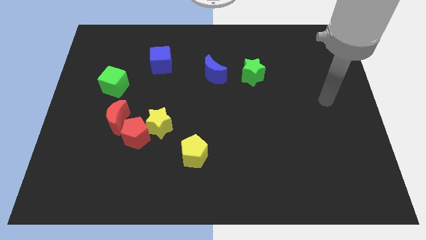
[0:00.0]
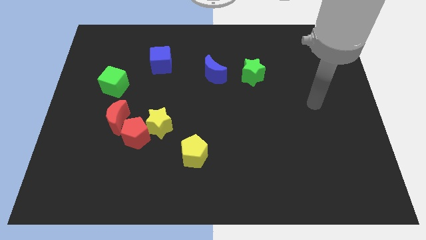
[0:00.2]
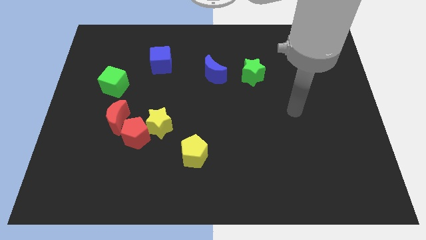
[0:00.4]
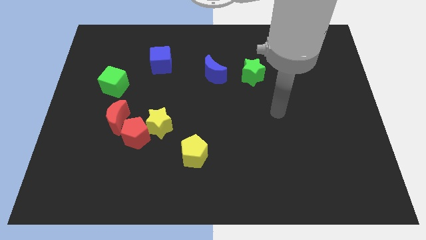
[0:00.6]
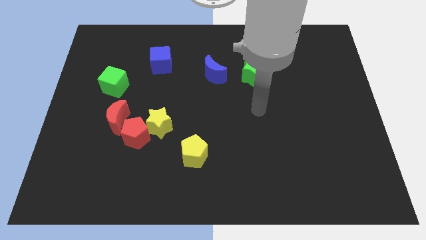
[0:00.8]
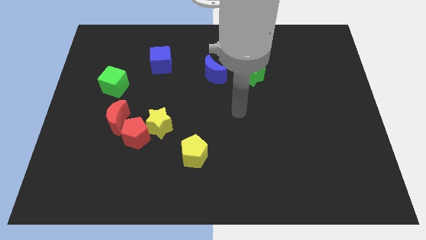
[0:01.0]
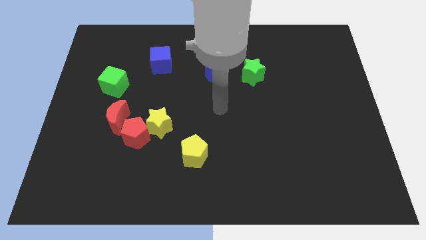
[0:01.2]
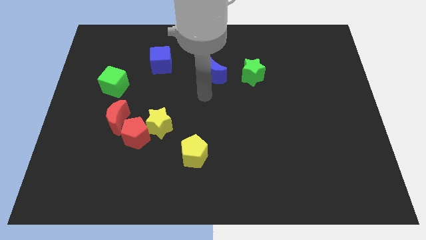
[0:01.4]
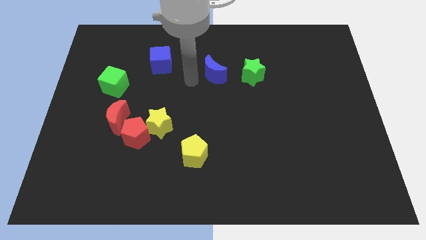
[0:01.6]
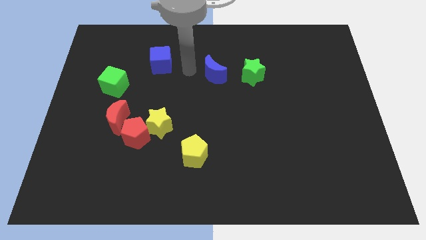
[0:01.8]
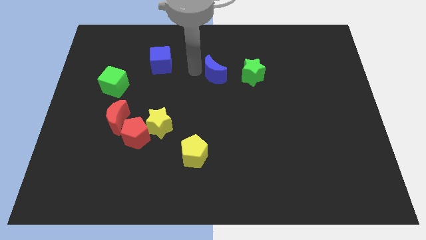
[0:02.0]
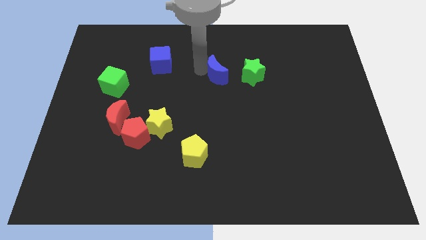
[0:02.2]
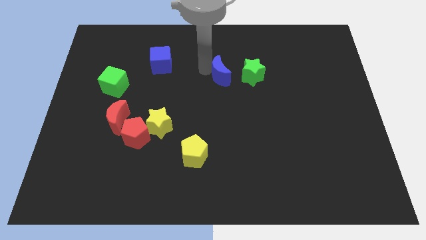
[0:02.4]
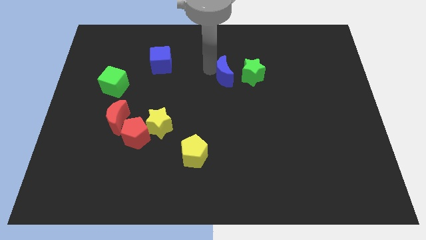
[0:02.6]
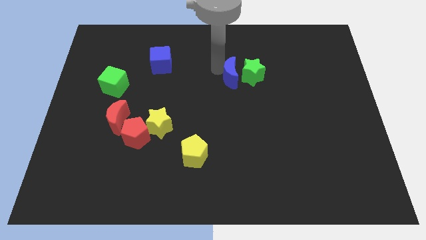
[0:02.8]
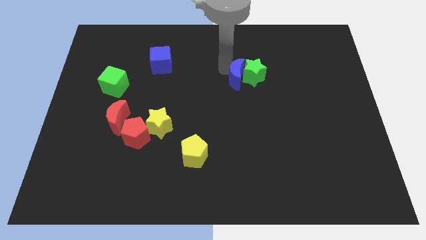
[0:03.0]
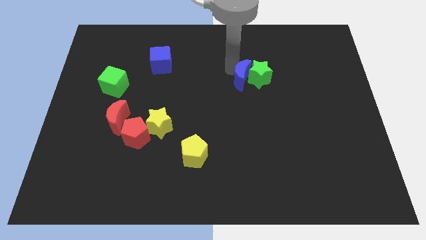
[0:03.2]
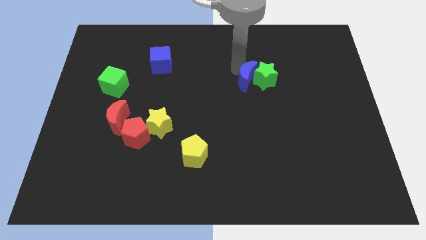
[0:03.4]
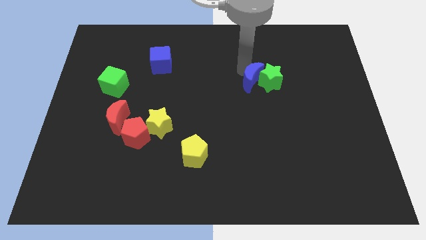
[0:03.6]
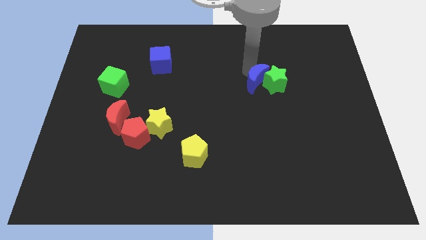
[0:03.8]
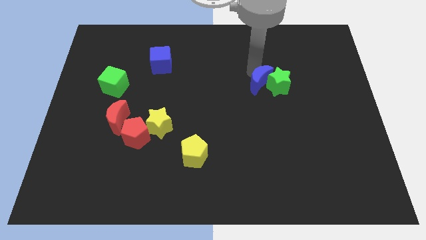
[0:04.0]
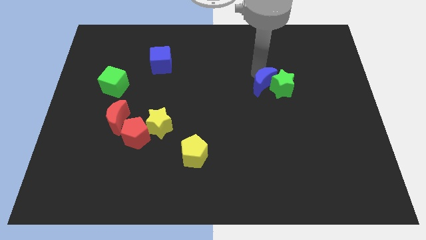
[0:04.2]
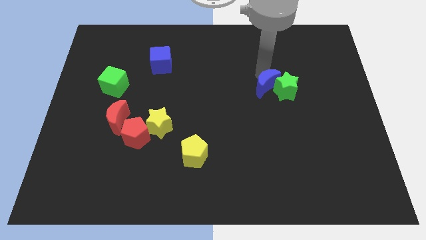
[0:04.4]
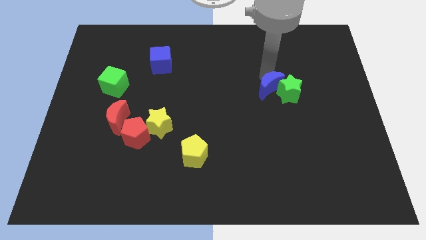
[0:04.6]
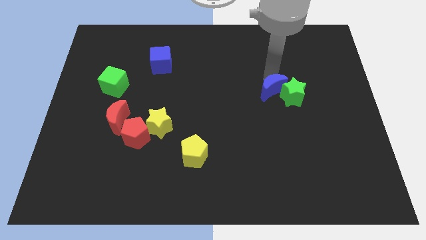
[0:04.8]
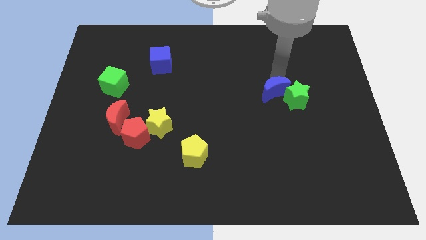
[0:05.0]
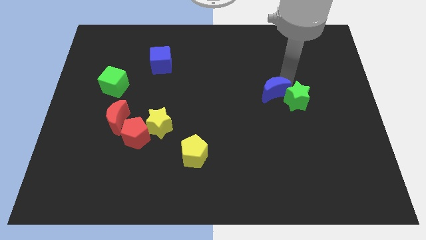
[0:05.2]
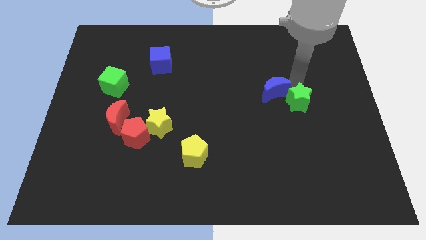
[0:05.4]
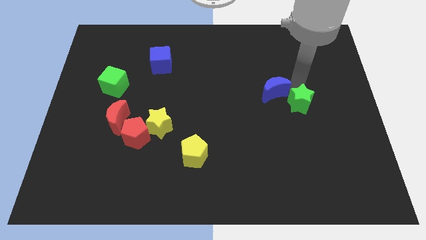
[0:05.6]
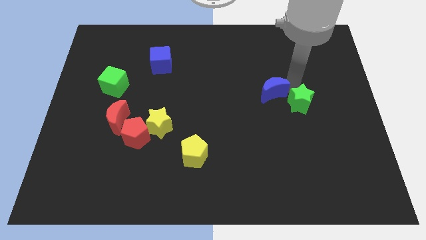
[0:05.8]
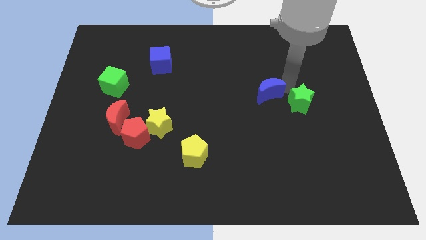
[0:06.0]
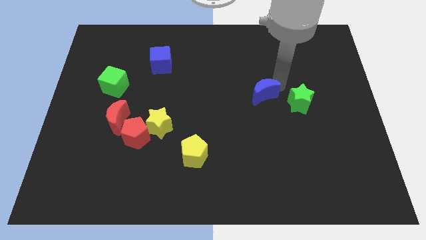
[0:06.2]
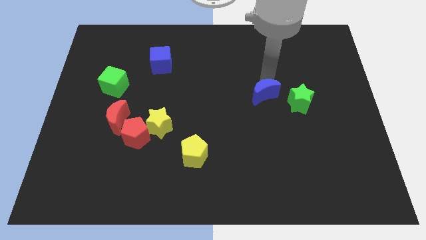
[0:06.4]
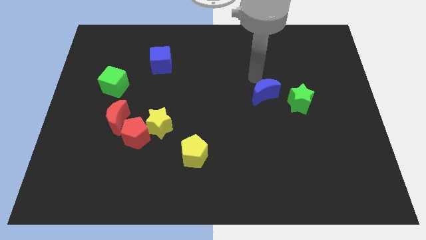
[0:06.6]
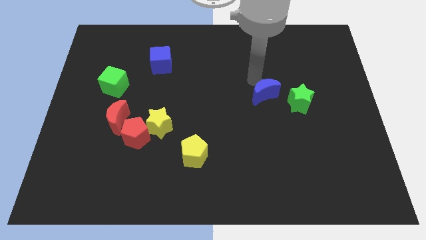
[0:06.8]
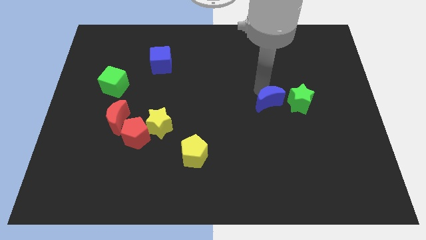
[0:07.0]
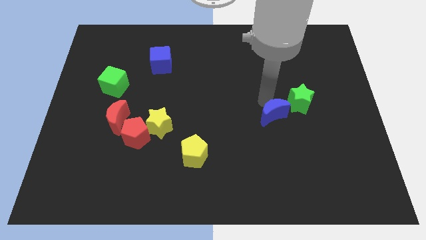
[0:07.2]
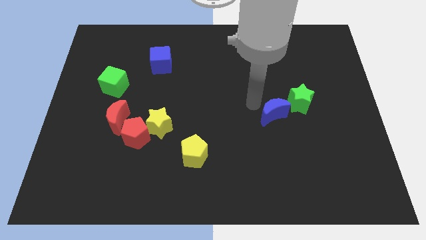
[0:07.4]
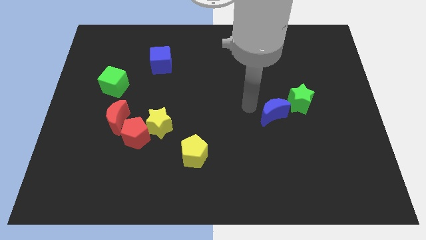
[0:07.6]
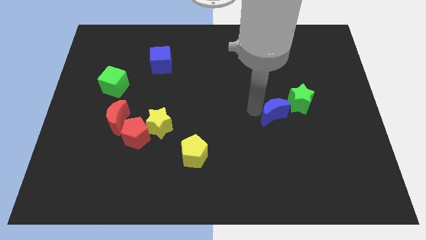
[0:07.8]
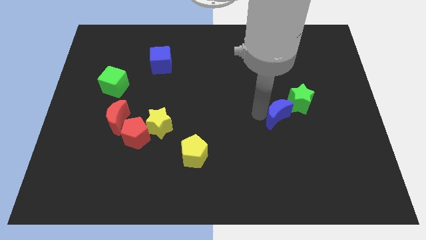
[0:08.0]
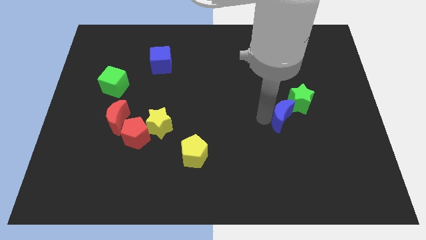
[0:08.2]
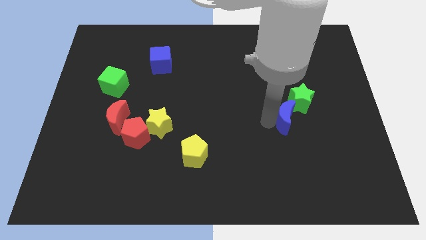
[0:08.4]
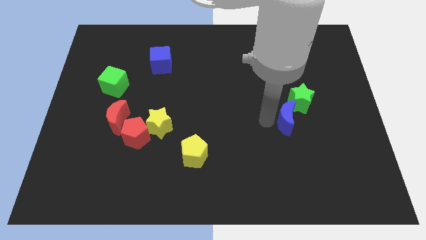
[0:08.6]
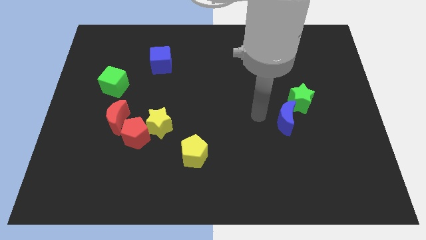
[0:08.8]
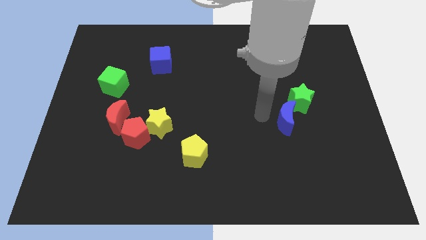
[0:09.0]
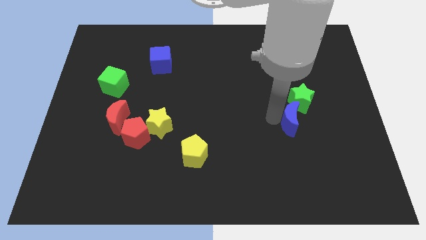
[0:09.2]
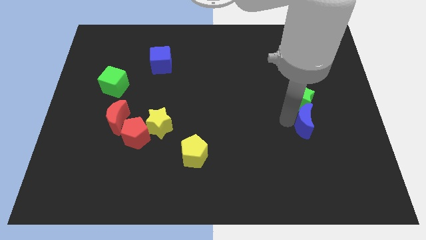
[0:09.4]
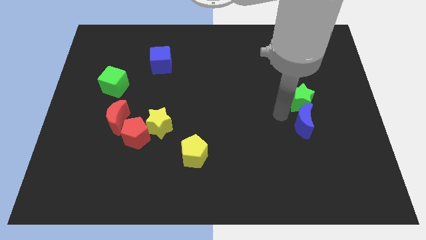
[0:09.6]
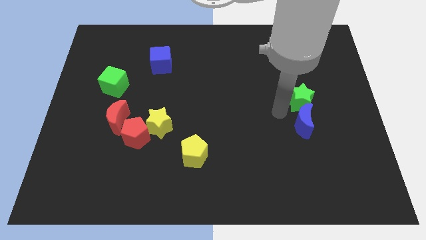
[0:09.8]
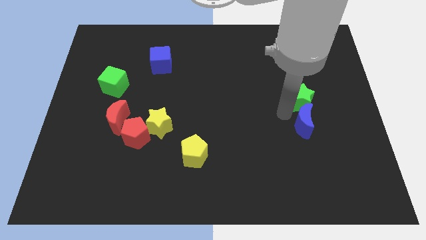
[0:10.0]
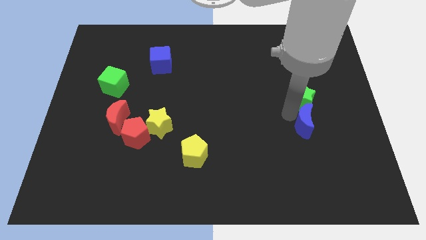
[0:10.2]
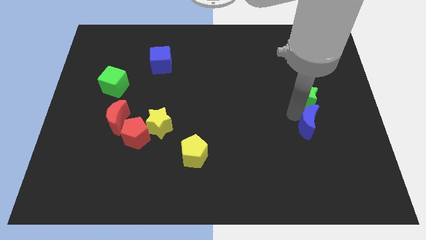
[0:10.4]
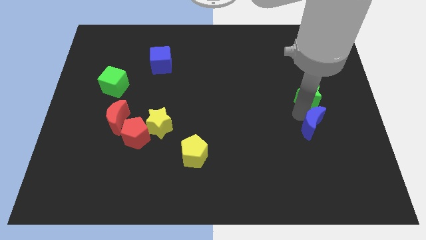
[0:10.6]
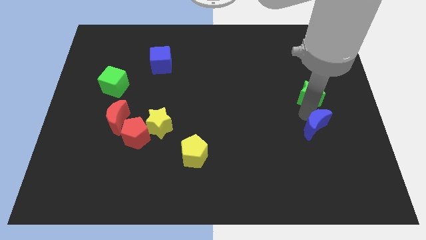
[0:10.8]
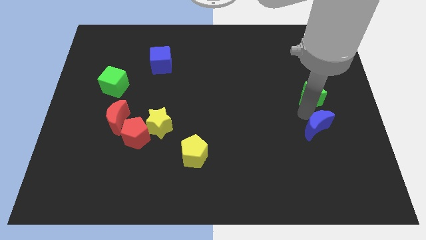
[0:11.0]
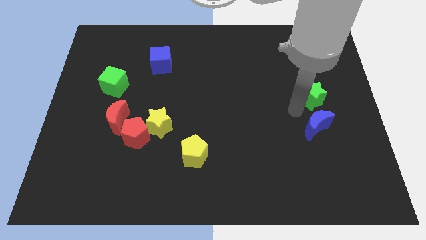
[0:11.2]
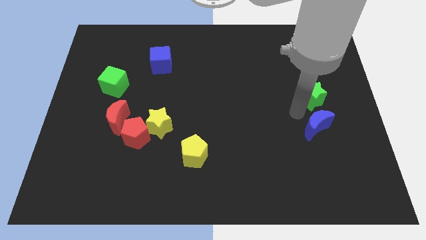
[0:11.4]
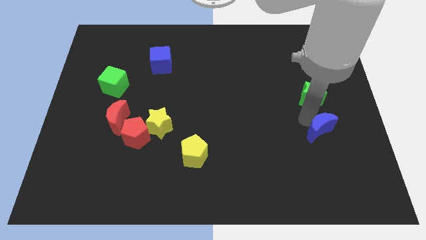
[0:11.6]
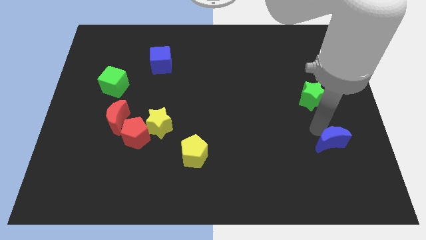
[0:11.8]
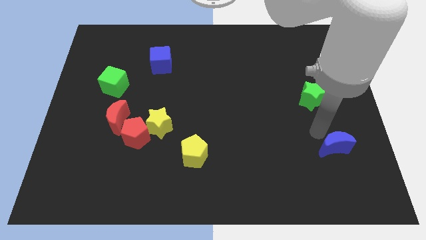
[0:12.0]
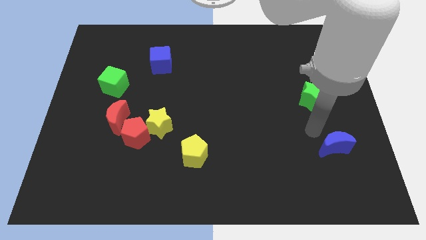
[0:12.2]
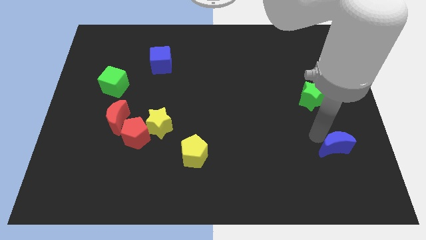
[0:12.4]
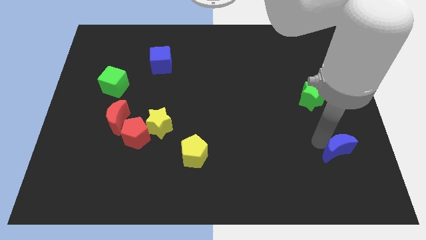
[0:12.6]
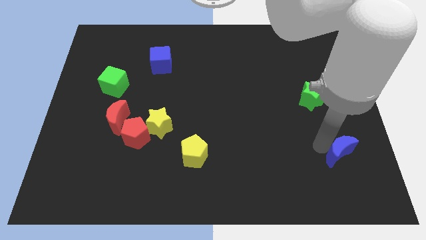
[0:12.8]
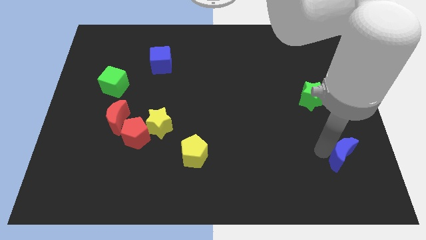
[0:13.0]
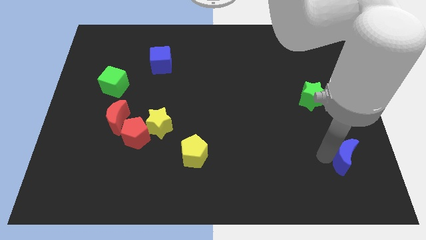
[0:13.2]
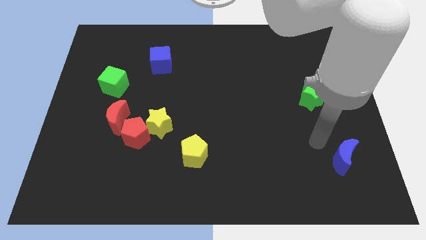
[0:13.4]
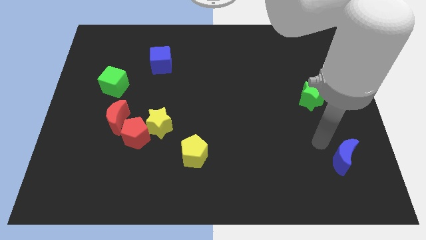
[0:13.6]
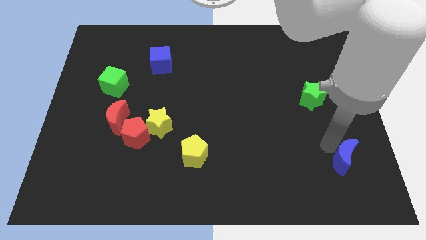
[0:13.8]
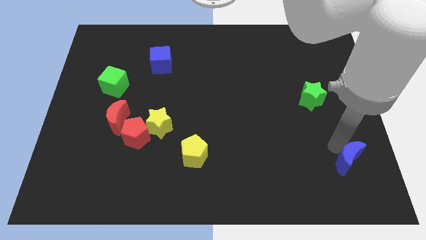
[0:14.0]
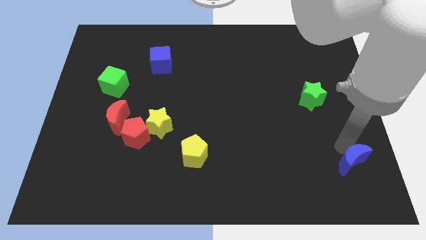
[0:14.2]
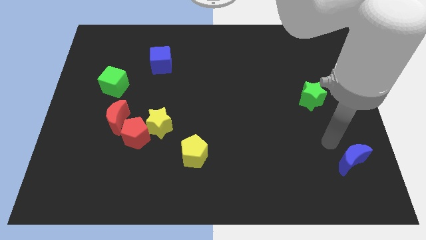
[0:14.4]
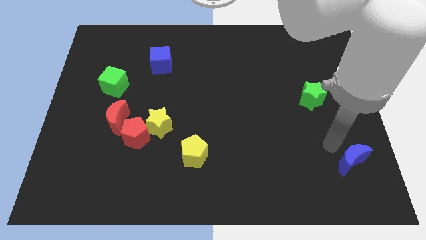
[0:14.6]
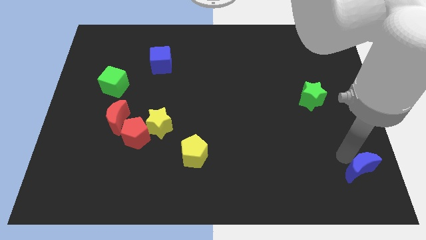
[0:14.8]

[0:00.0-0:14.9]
put the blue moon to the bottom right of the board
